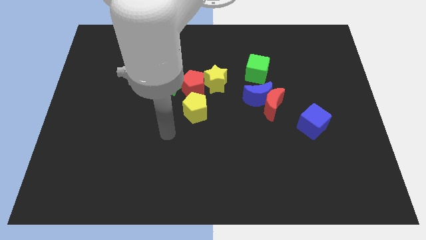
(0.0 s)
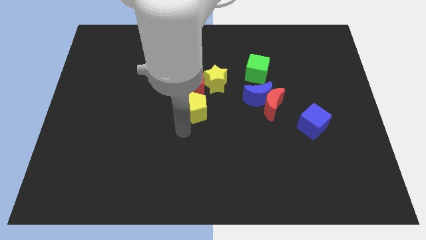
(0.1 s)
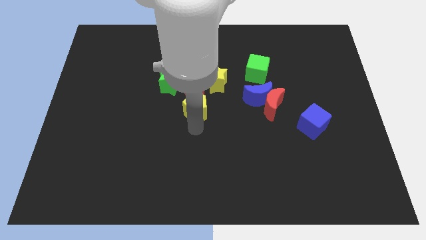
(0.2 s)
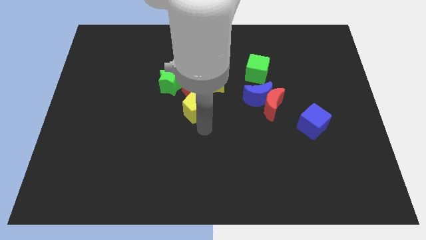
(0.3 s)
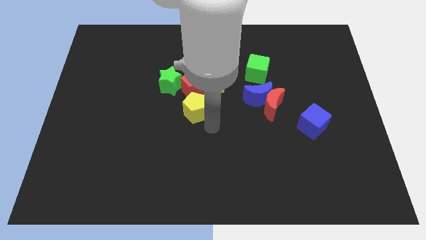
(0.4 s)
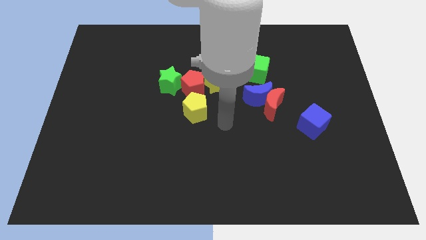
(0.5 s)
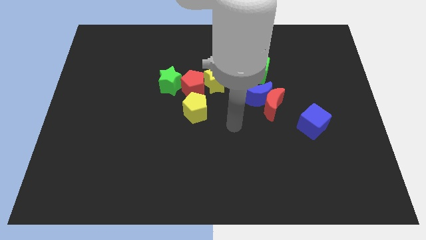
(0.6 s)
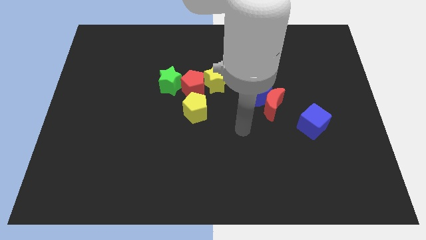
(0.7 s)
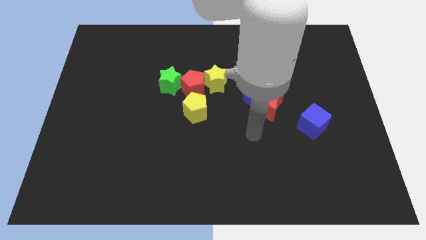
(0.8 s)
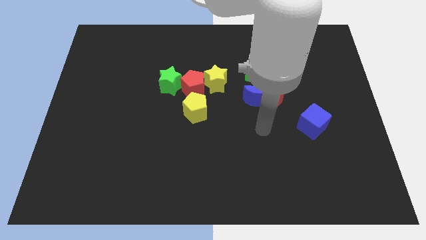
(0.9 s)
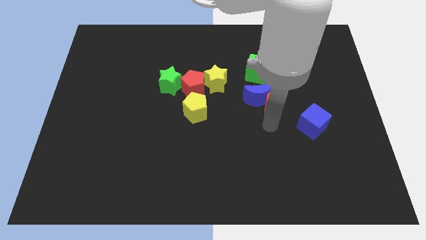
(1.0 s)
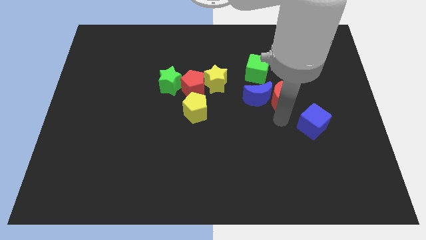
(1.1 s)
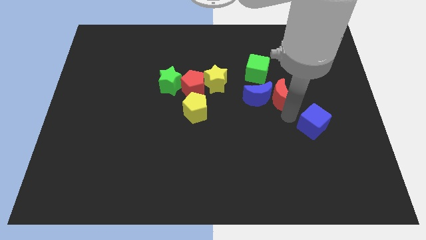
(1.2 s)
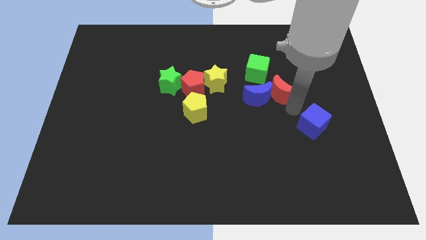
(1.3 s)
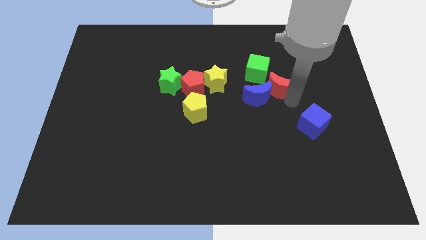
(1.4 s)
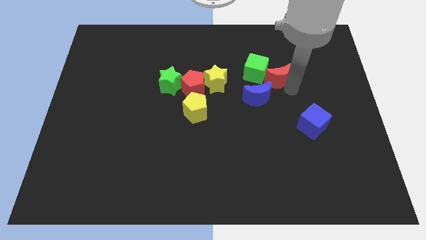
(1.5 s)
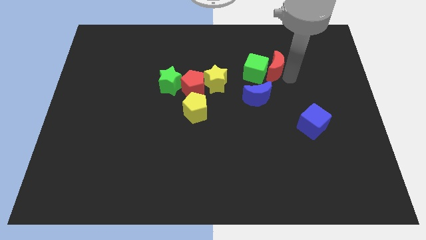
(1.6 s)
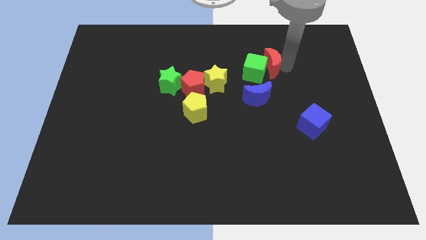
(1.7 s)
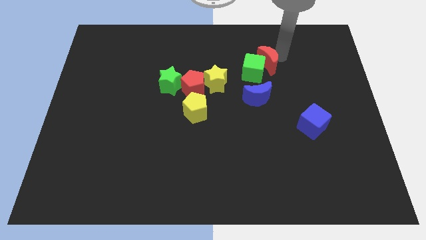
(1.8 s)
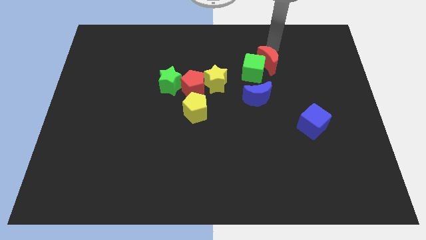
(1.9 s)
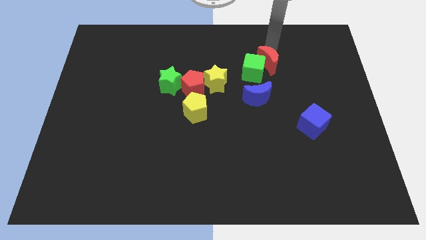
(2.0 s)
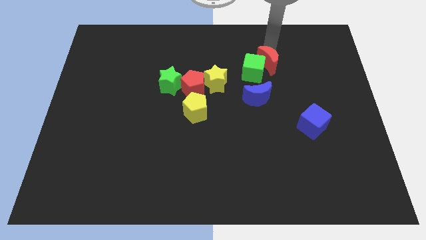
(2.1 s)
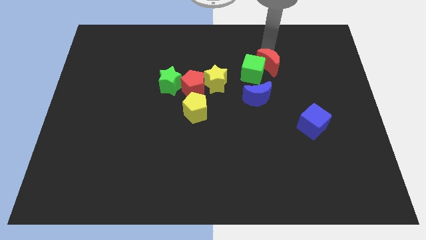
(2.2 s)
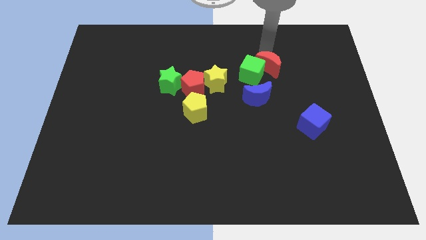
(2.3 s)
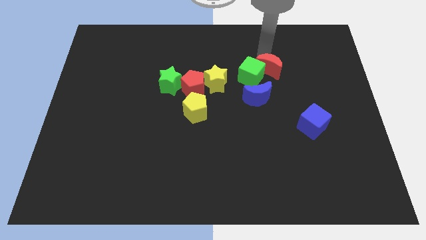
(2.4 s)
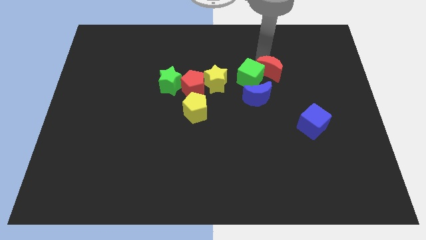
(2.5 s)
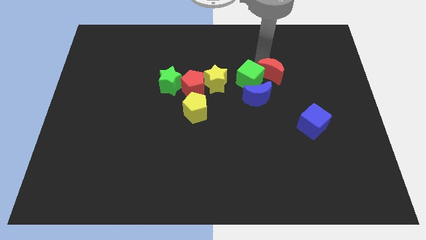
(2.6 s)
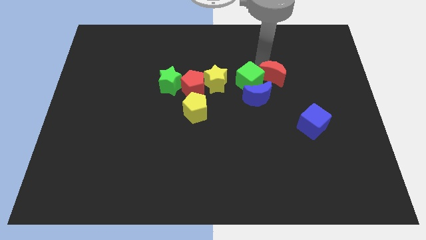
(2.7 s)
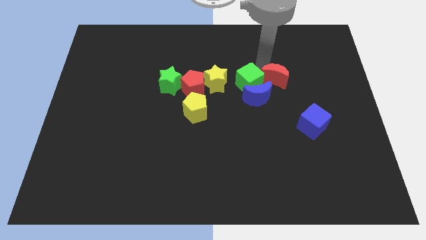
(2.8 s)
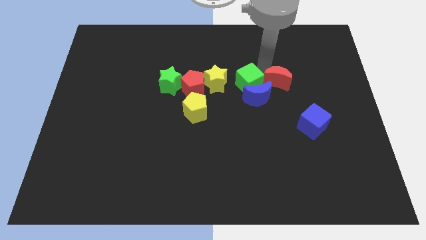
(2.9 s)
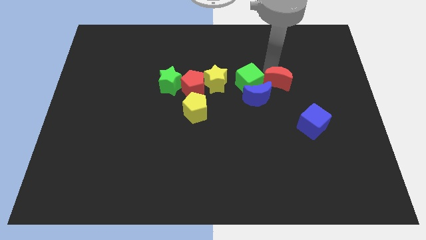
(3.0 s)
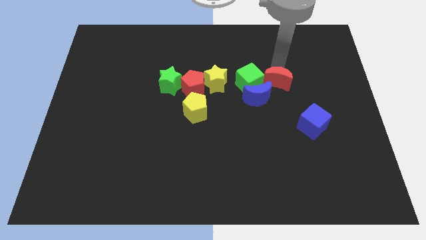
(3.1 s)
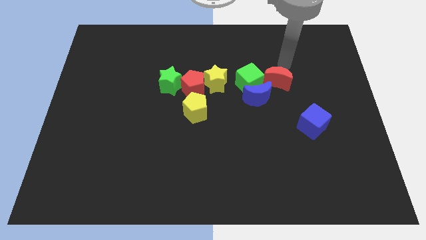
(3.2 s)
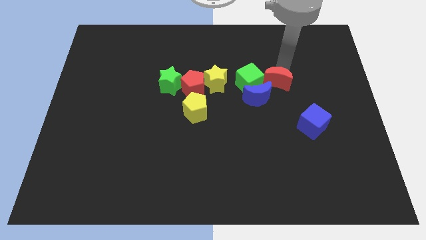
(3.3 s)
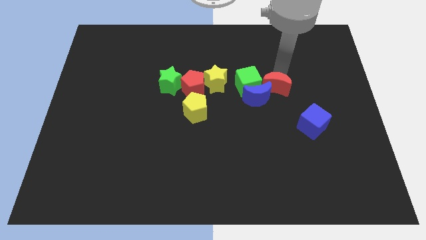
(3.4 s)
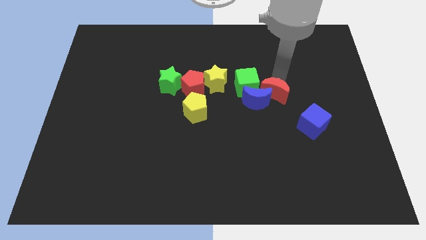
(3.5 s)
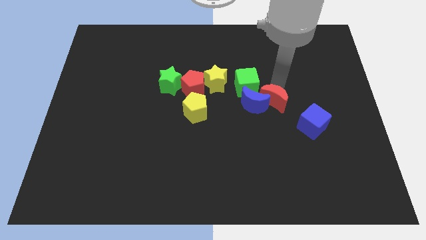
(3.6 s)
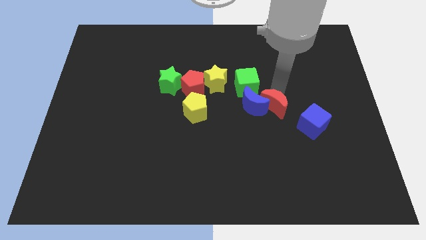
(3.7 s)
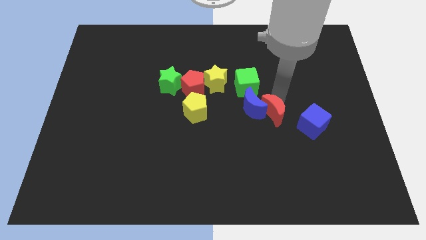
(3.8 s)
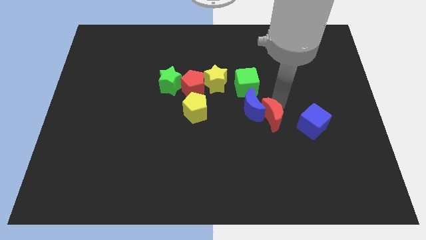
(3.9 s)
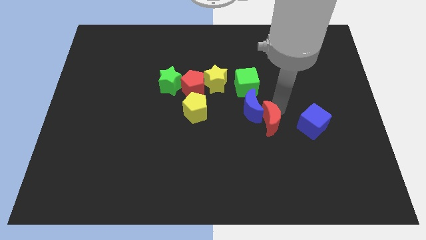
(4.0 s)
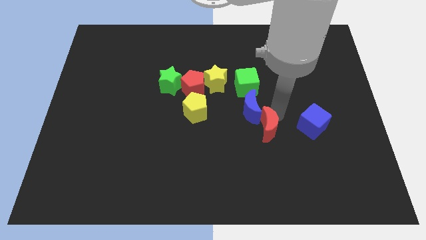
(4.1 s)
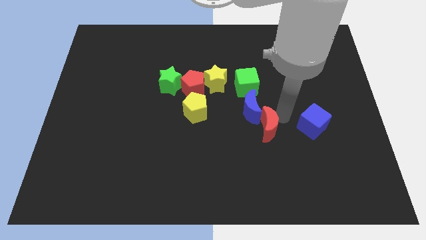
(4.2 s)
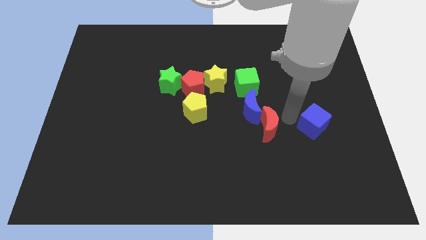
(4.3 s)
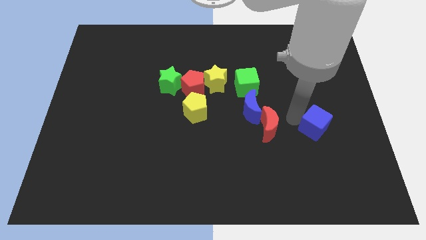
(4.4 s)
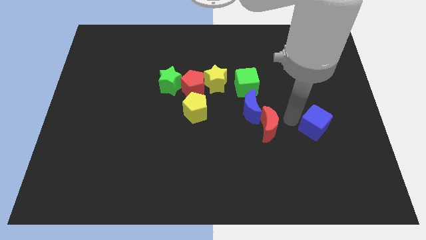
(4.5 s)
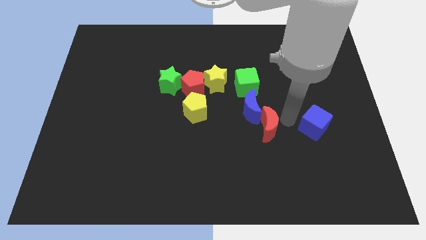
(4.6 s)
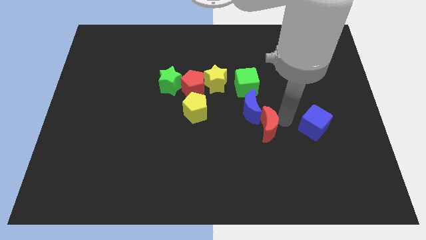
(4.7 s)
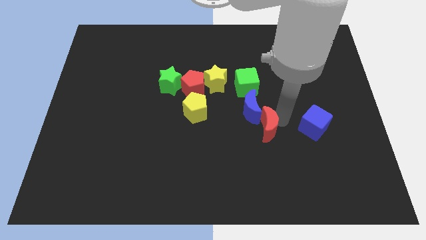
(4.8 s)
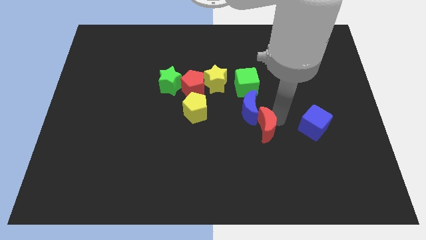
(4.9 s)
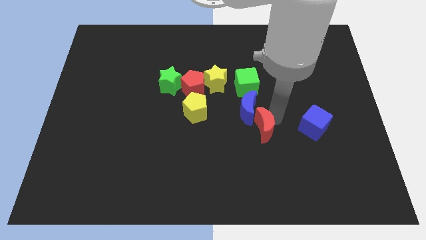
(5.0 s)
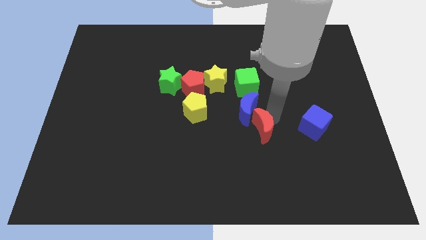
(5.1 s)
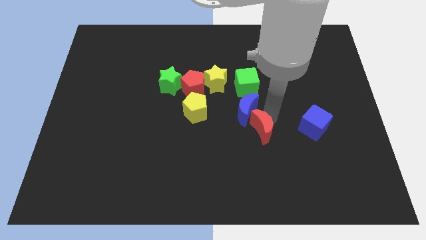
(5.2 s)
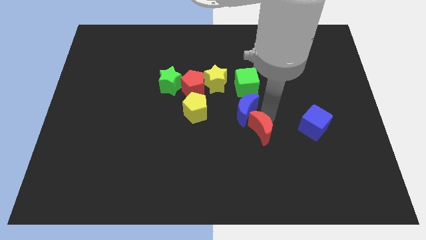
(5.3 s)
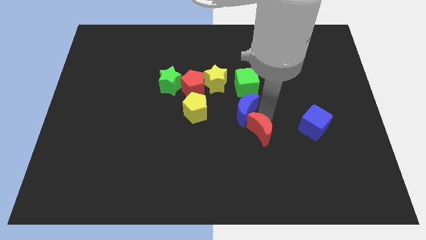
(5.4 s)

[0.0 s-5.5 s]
move the red moon diagonally downwards and to the left a bit

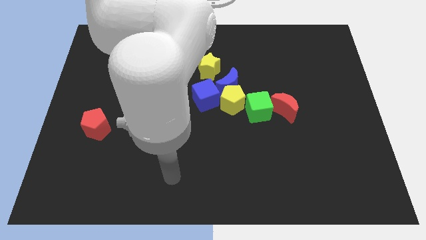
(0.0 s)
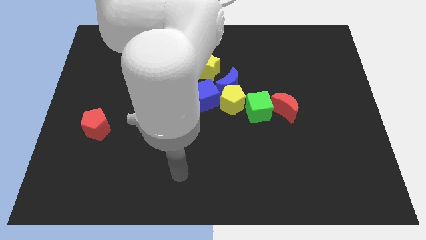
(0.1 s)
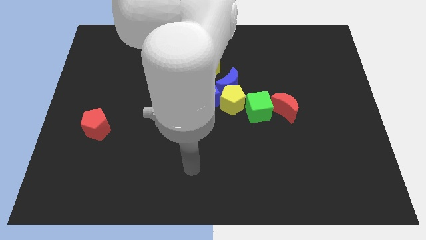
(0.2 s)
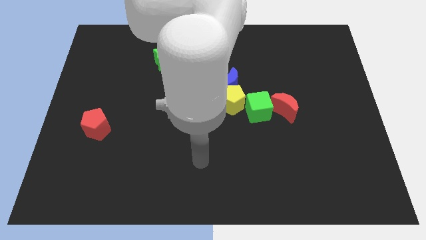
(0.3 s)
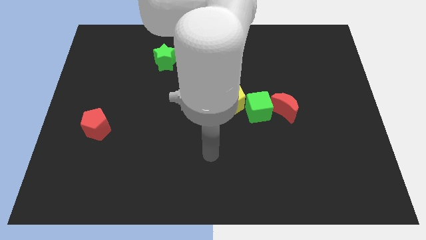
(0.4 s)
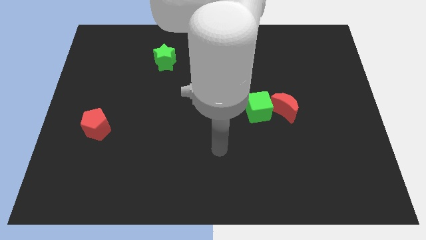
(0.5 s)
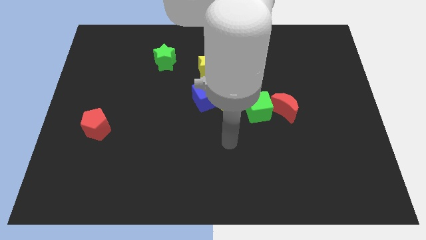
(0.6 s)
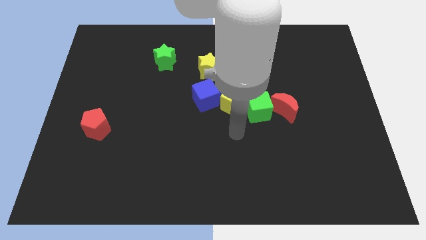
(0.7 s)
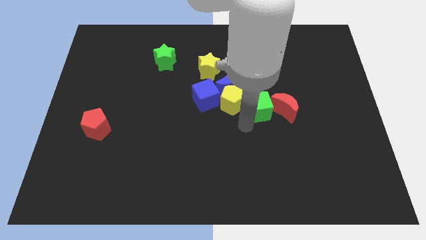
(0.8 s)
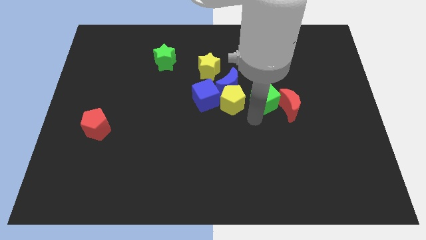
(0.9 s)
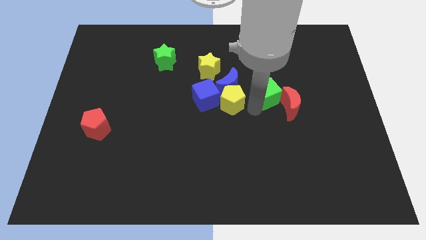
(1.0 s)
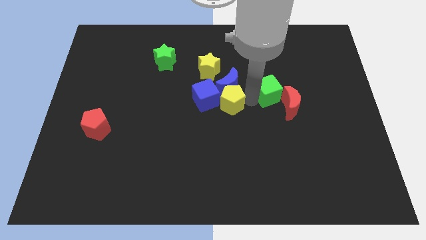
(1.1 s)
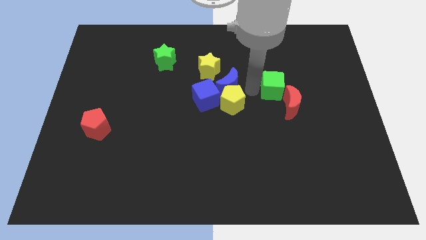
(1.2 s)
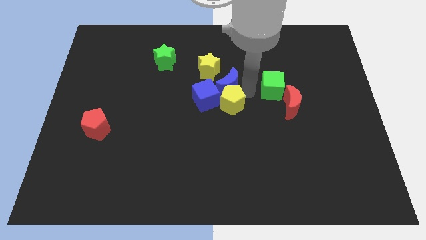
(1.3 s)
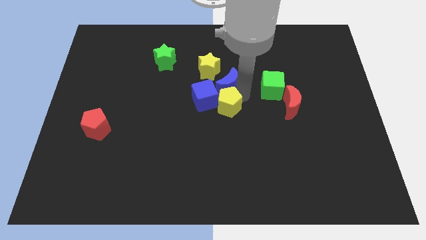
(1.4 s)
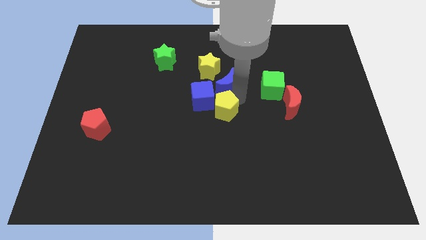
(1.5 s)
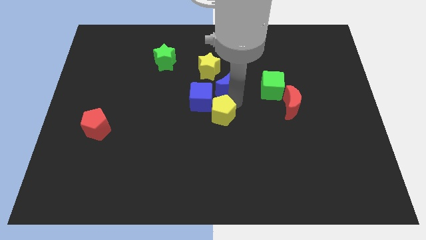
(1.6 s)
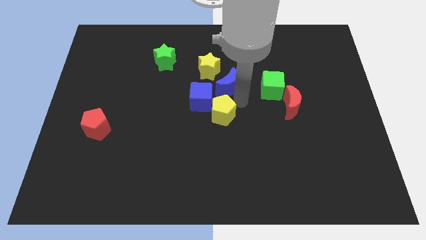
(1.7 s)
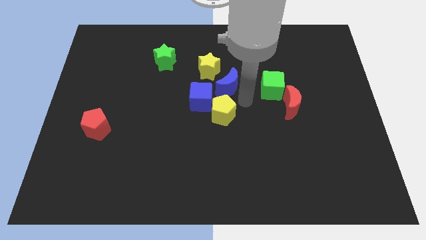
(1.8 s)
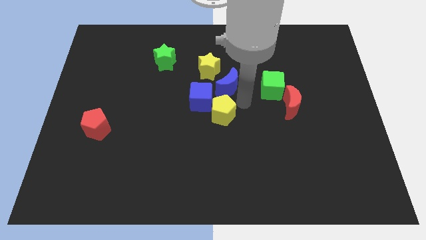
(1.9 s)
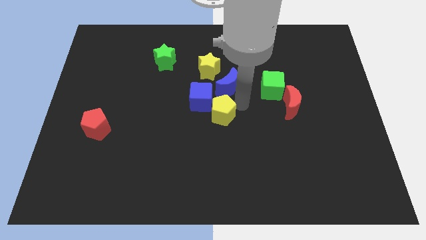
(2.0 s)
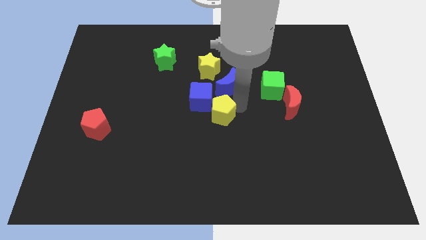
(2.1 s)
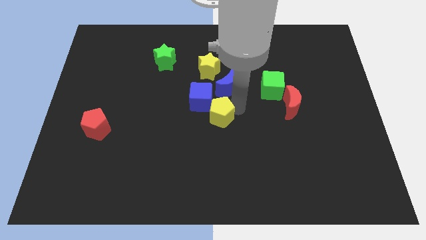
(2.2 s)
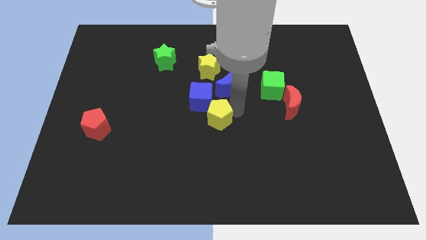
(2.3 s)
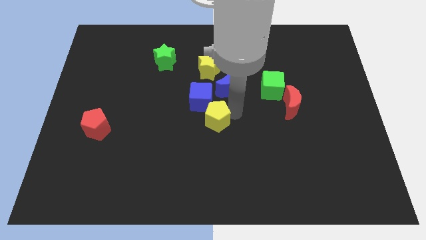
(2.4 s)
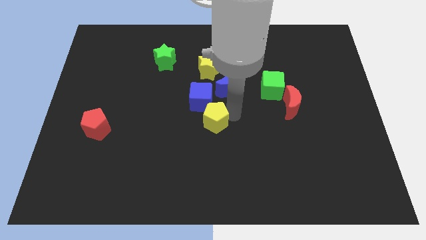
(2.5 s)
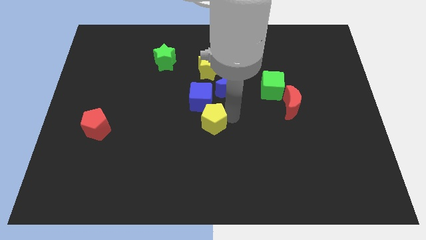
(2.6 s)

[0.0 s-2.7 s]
move the yellow pentagon downwards and to the left diagonally a little

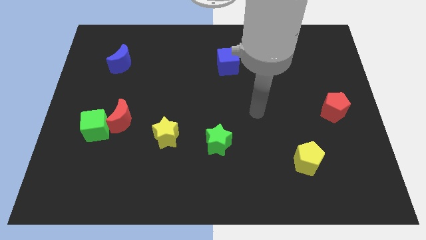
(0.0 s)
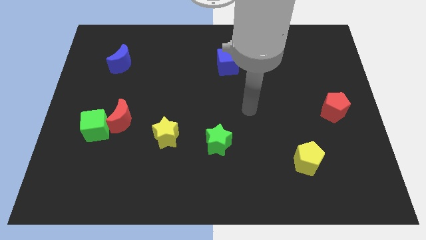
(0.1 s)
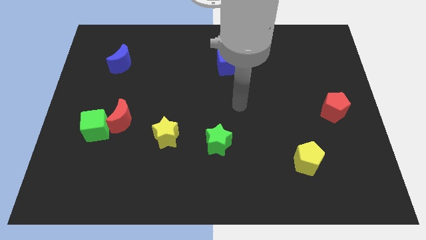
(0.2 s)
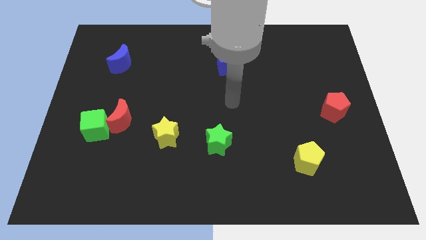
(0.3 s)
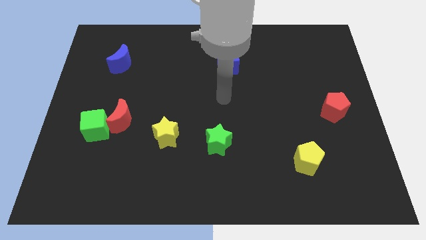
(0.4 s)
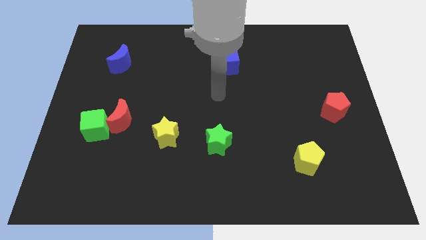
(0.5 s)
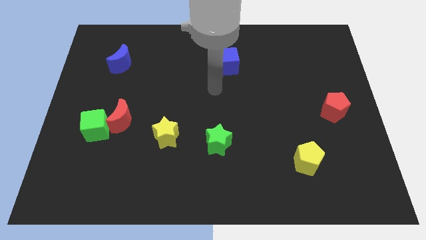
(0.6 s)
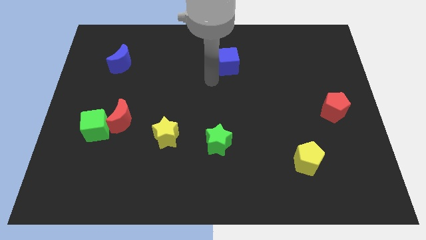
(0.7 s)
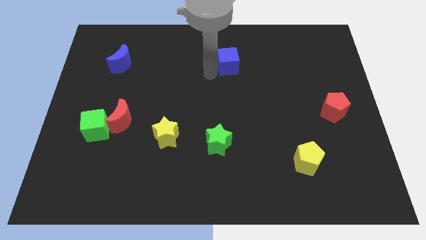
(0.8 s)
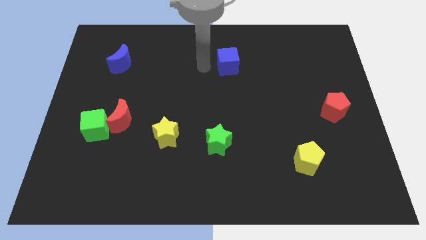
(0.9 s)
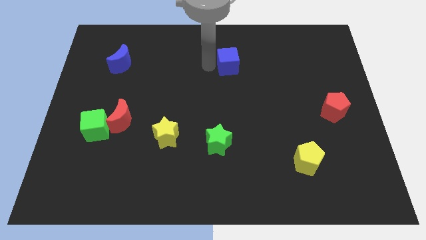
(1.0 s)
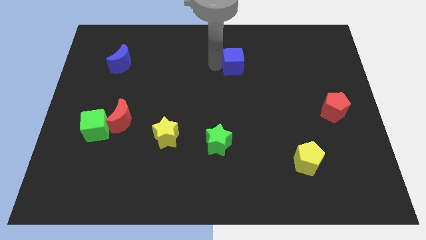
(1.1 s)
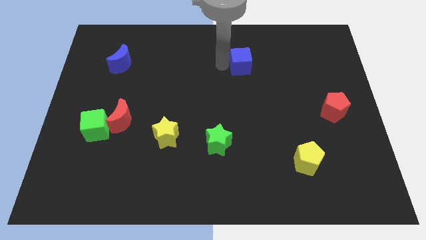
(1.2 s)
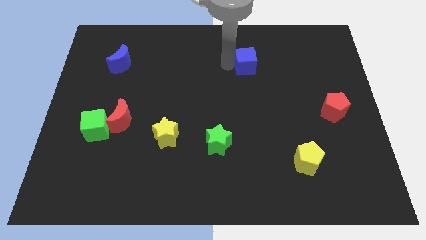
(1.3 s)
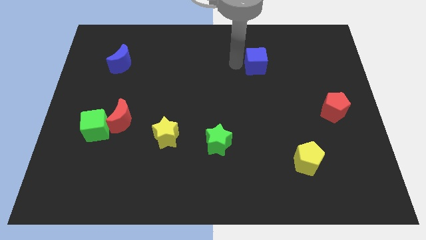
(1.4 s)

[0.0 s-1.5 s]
push the blue cube a bit right
